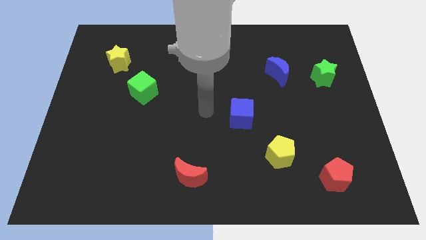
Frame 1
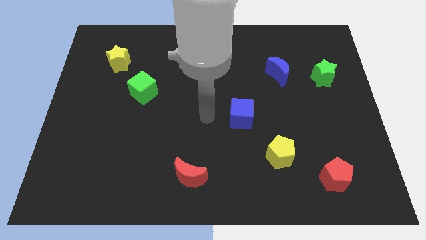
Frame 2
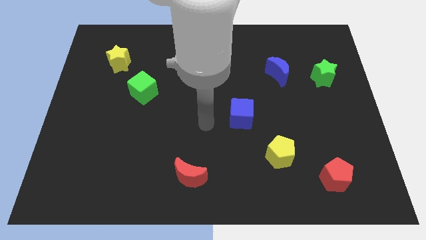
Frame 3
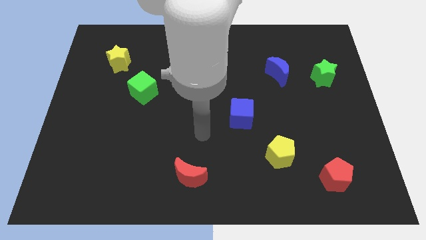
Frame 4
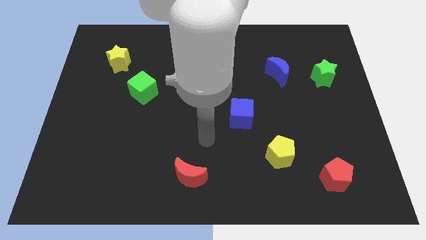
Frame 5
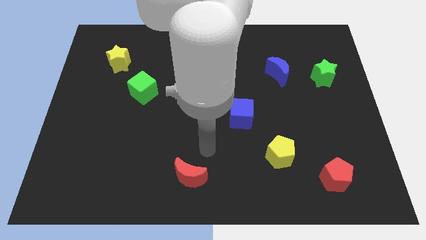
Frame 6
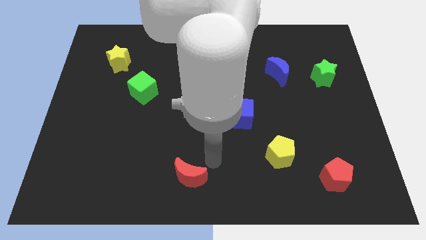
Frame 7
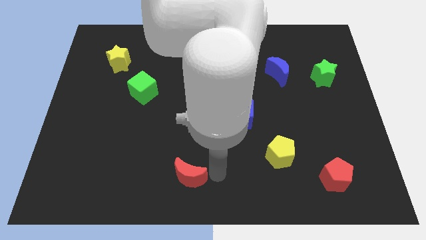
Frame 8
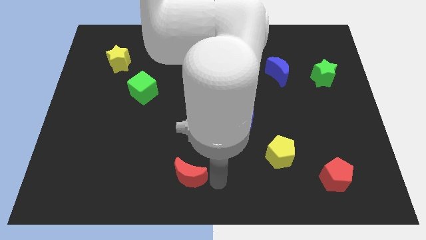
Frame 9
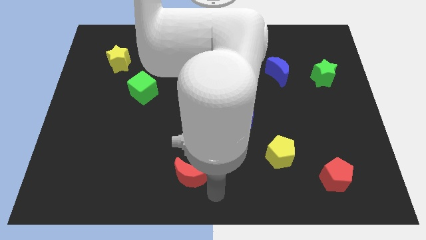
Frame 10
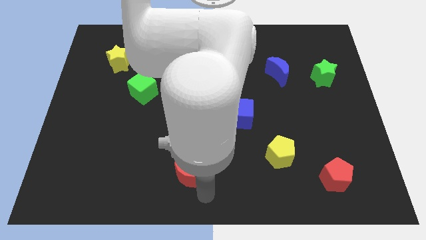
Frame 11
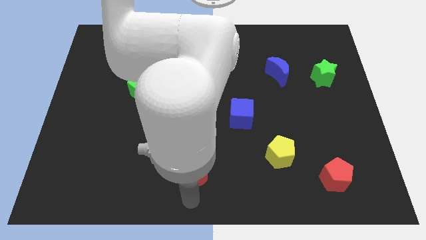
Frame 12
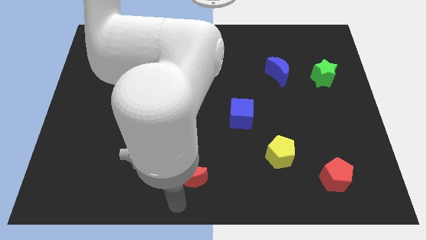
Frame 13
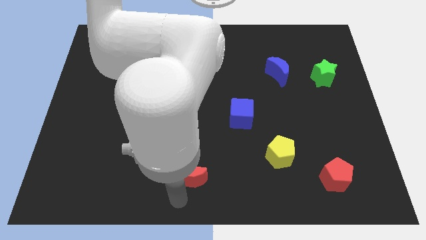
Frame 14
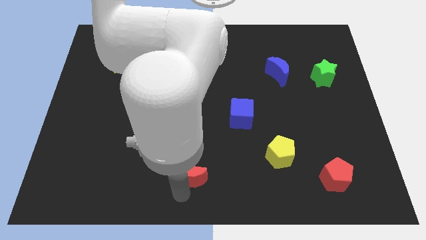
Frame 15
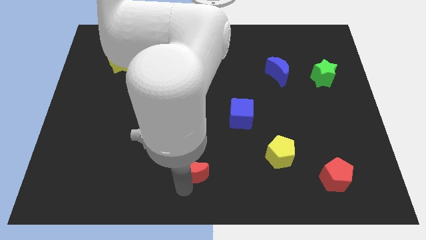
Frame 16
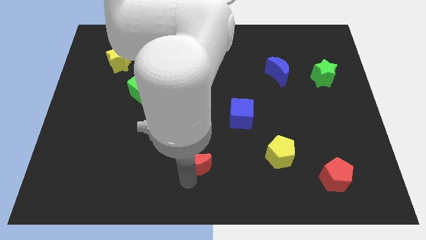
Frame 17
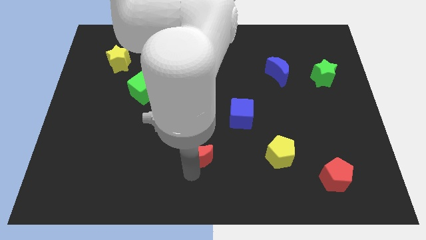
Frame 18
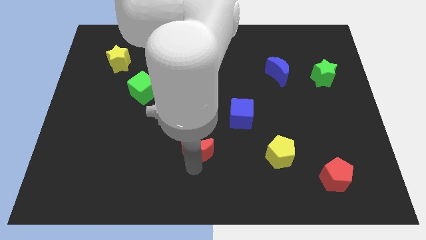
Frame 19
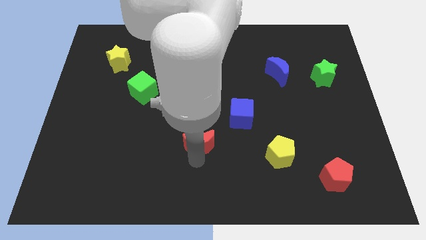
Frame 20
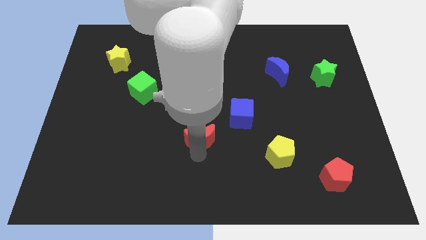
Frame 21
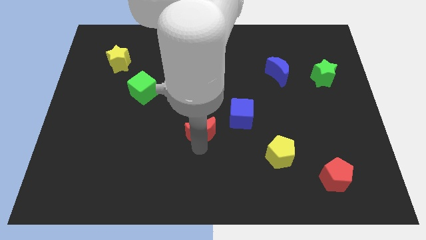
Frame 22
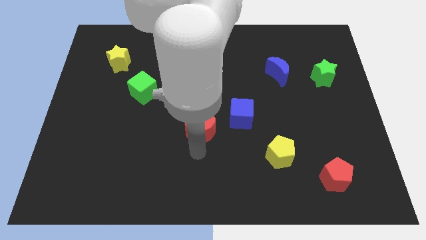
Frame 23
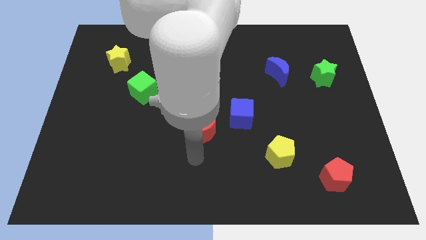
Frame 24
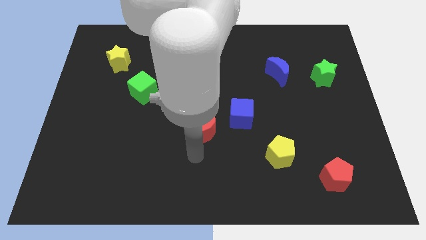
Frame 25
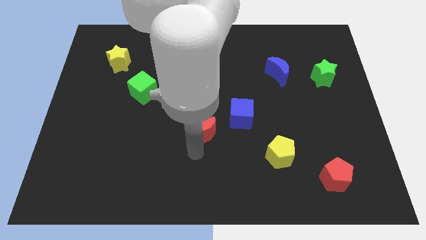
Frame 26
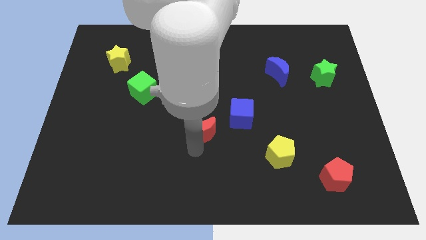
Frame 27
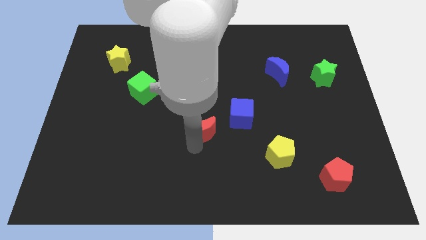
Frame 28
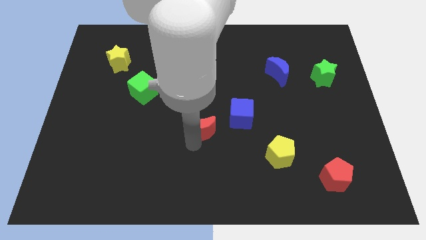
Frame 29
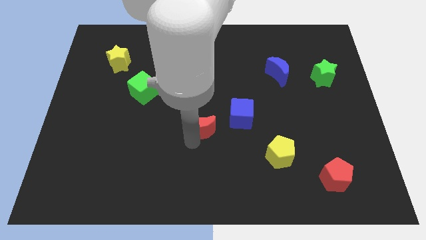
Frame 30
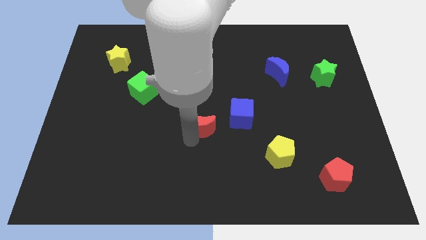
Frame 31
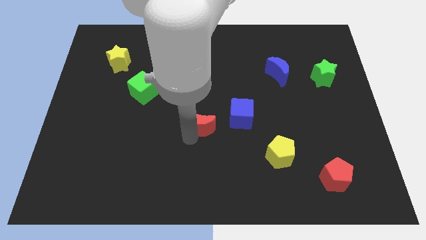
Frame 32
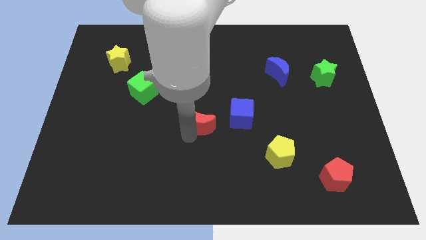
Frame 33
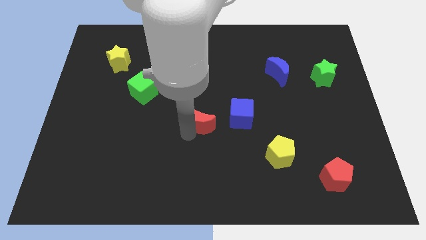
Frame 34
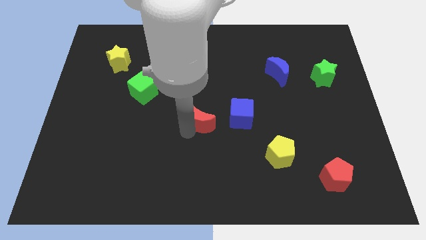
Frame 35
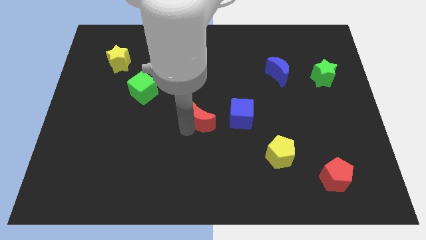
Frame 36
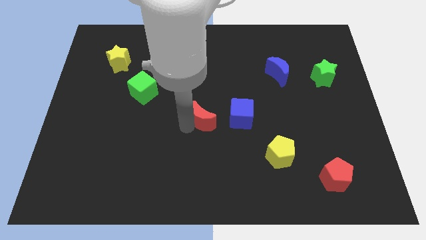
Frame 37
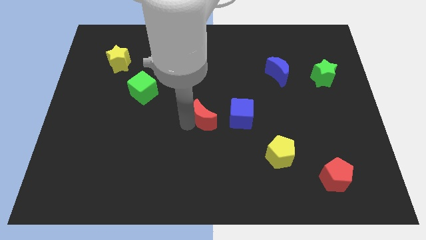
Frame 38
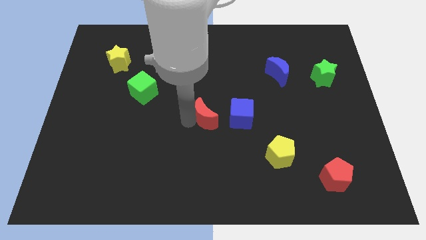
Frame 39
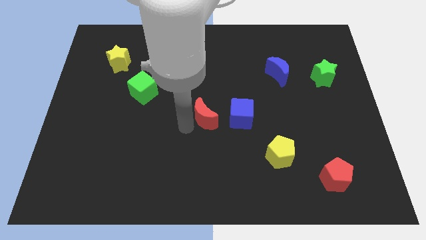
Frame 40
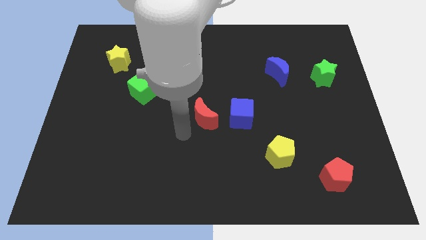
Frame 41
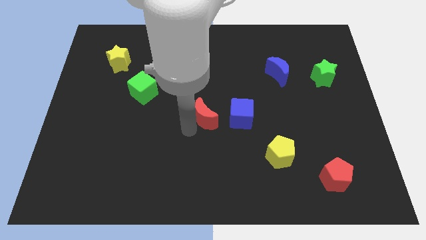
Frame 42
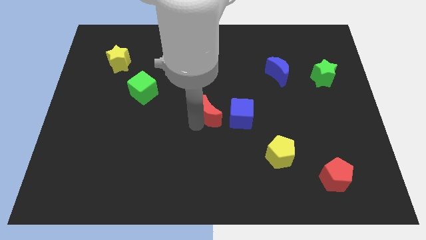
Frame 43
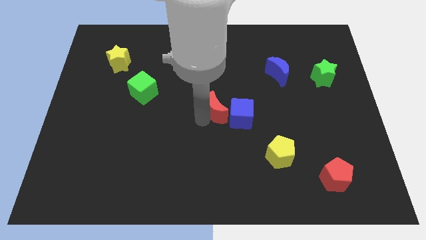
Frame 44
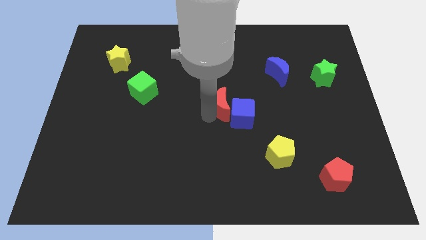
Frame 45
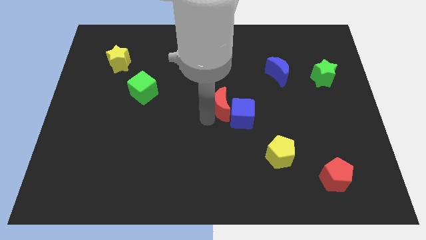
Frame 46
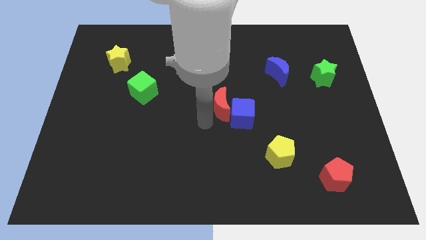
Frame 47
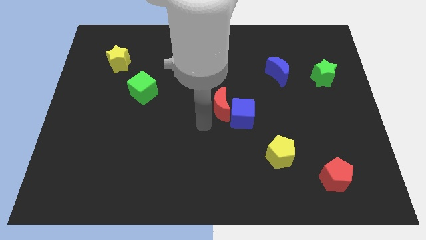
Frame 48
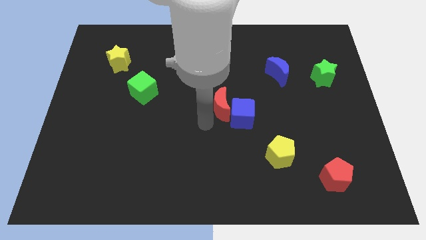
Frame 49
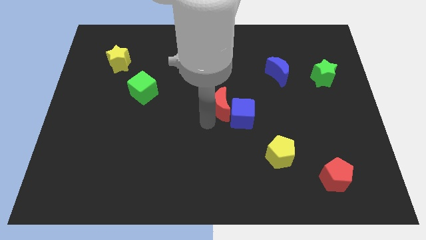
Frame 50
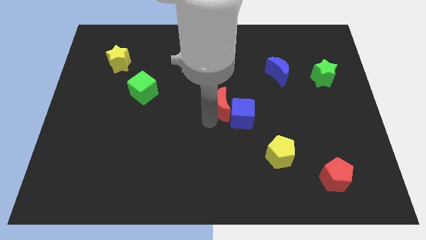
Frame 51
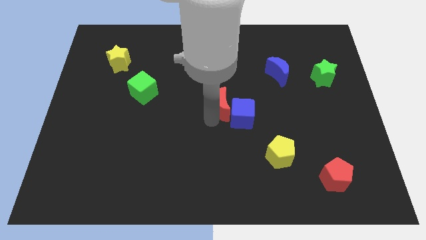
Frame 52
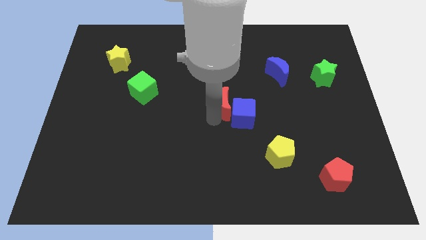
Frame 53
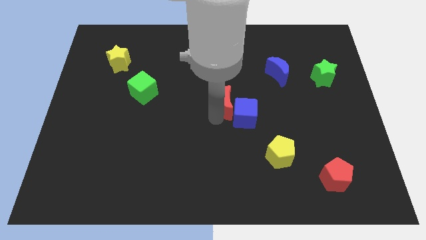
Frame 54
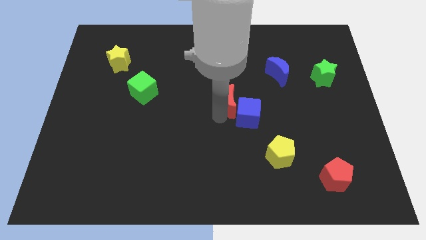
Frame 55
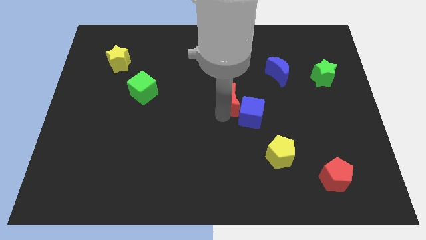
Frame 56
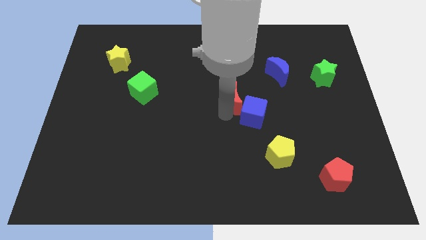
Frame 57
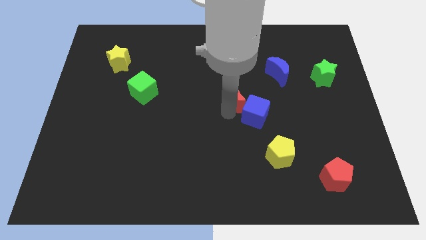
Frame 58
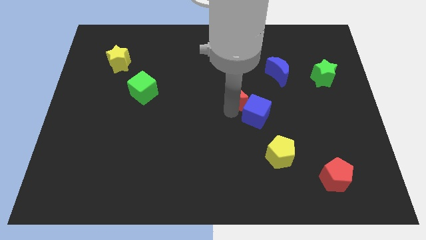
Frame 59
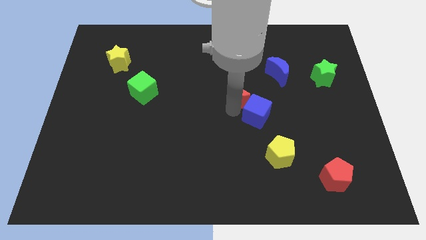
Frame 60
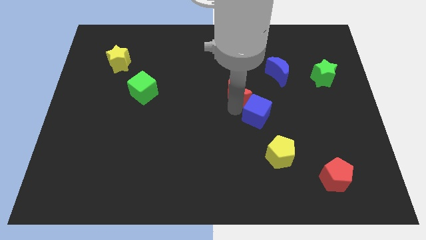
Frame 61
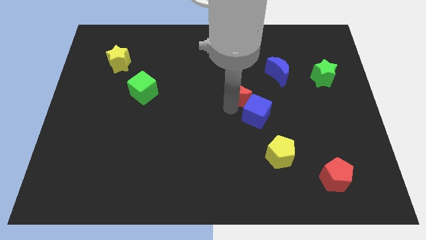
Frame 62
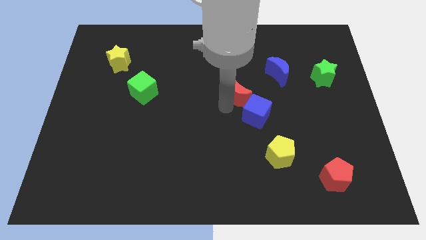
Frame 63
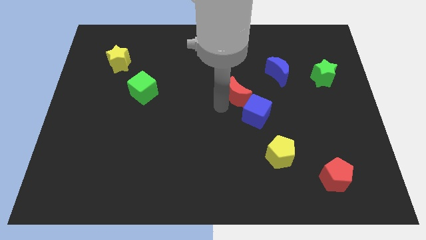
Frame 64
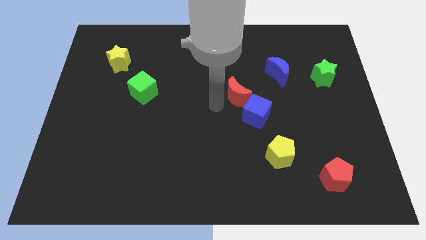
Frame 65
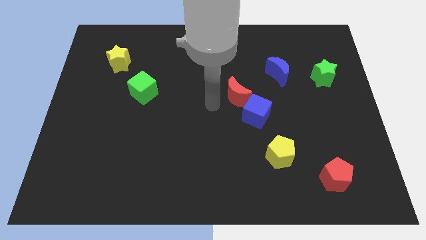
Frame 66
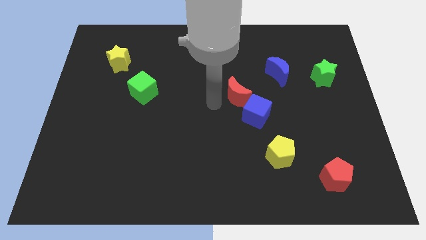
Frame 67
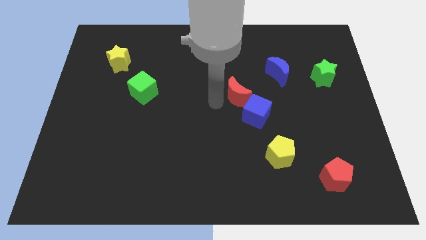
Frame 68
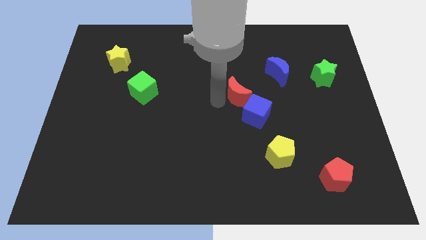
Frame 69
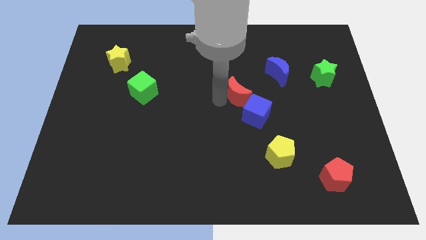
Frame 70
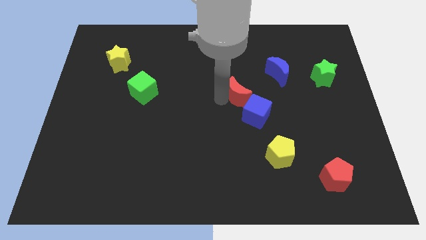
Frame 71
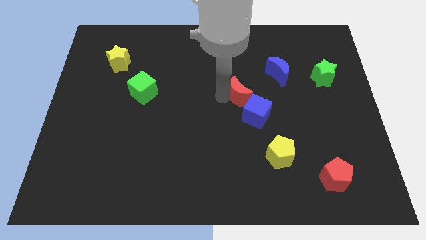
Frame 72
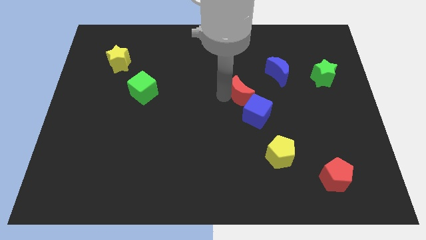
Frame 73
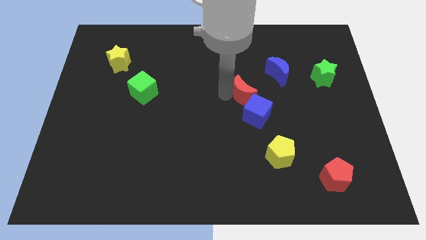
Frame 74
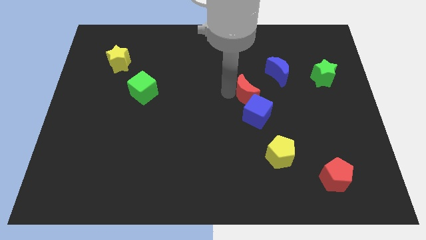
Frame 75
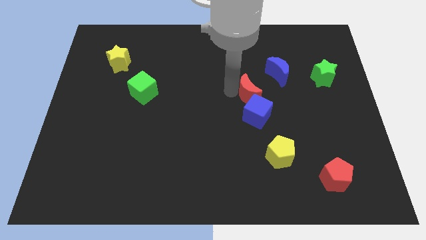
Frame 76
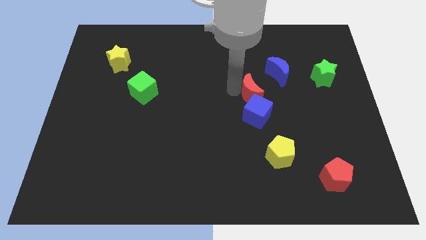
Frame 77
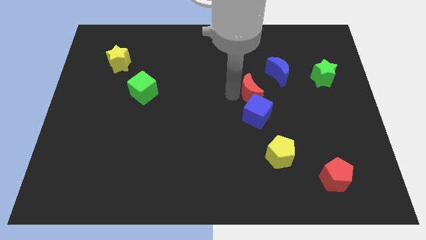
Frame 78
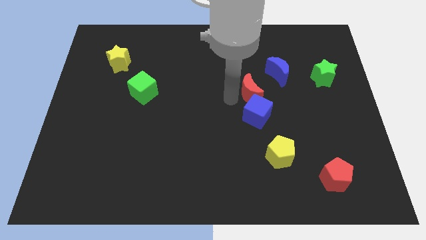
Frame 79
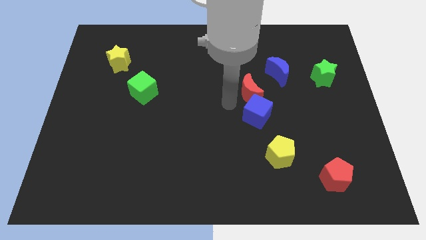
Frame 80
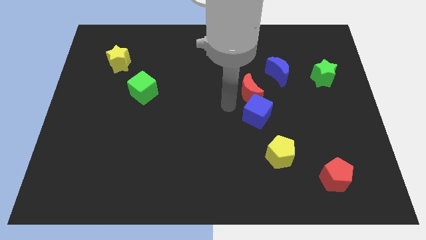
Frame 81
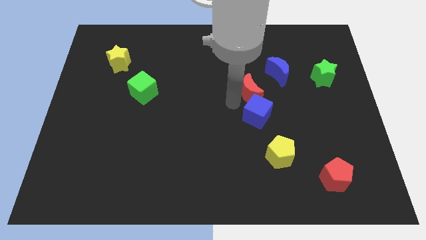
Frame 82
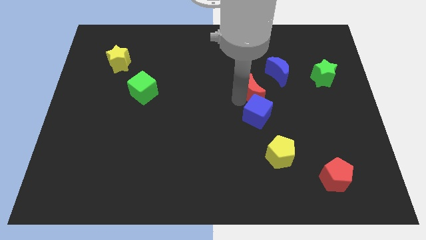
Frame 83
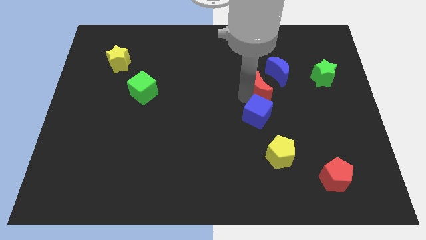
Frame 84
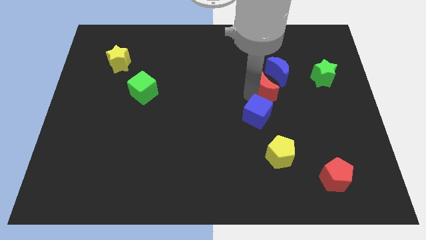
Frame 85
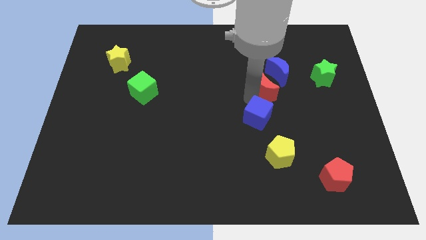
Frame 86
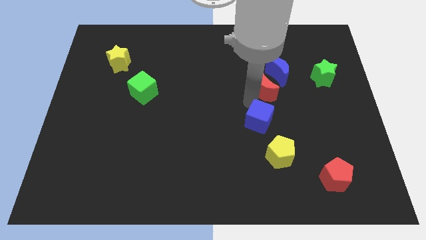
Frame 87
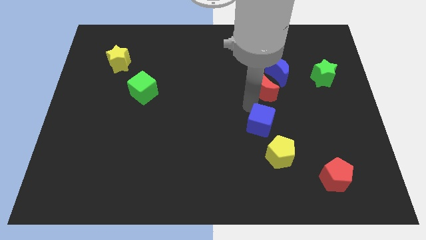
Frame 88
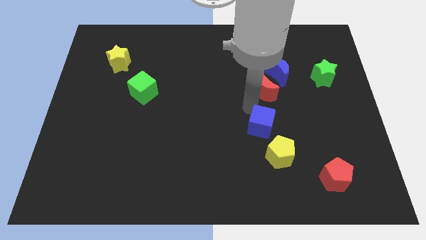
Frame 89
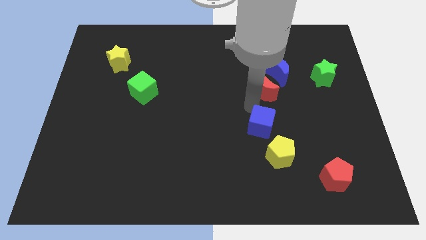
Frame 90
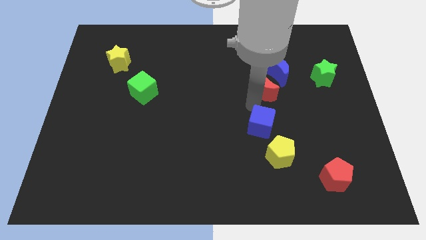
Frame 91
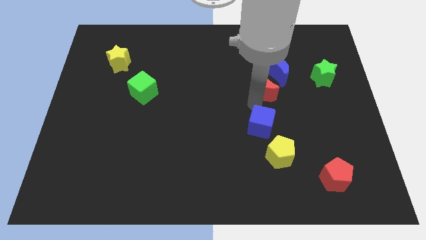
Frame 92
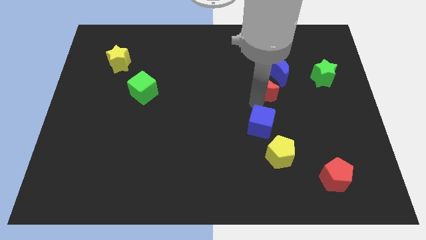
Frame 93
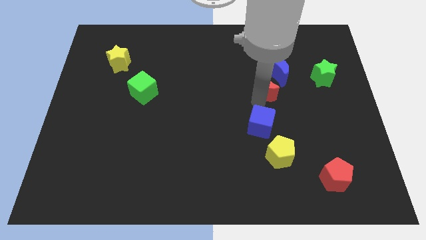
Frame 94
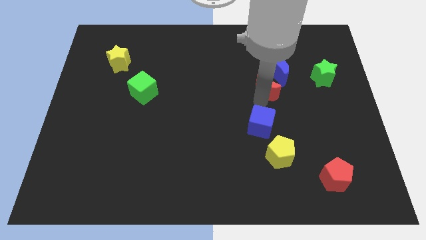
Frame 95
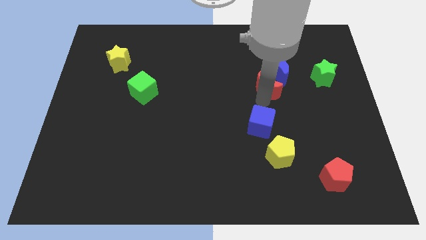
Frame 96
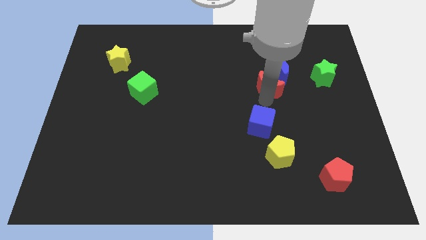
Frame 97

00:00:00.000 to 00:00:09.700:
put the red moon next to the blue moon
